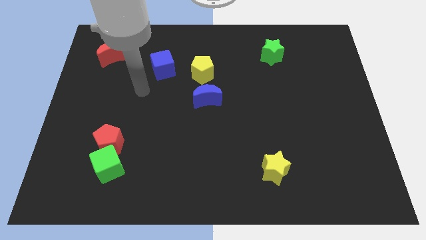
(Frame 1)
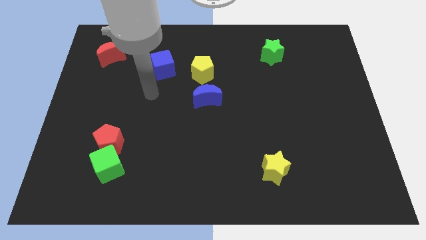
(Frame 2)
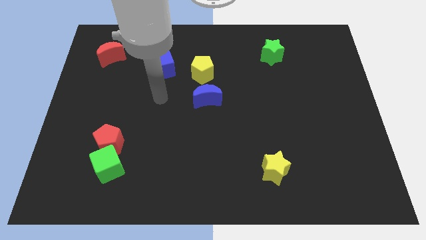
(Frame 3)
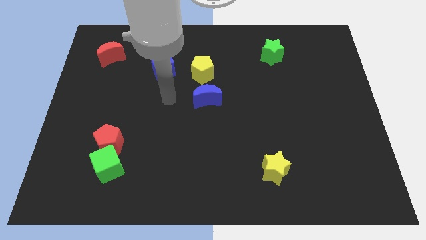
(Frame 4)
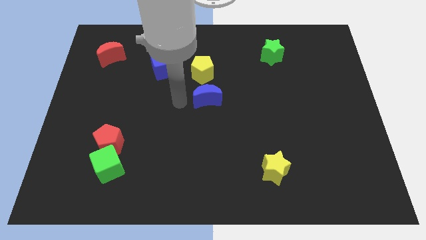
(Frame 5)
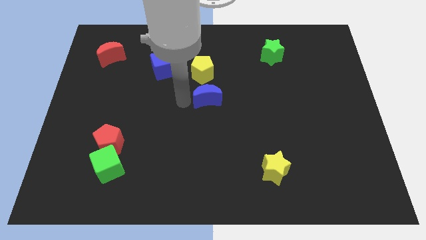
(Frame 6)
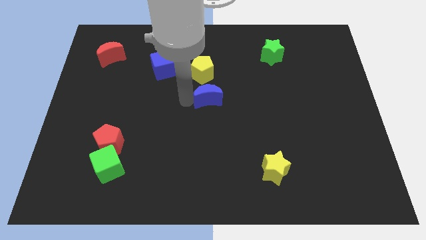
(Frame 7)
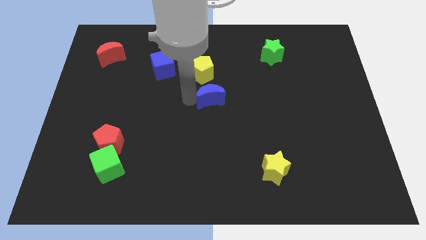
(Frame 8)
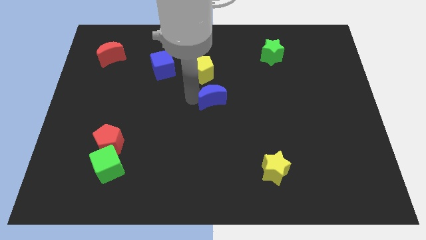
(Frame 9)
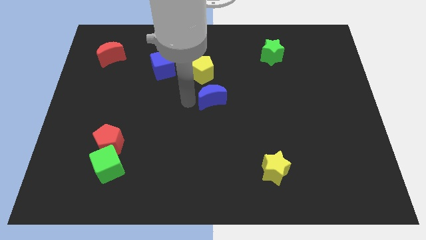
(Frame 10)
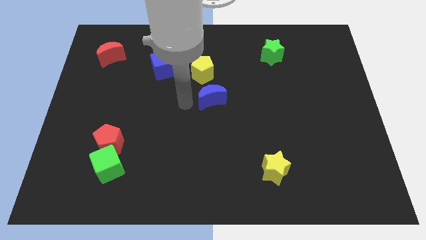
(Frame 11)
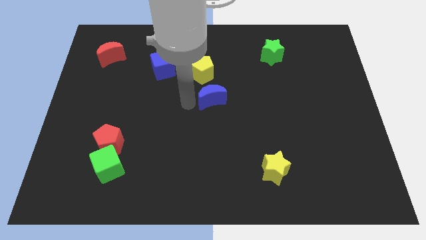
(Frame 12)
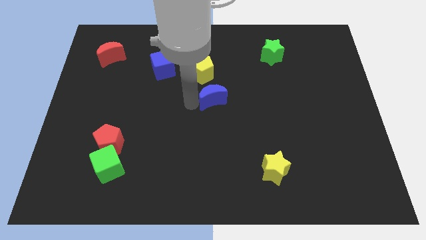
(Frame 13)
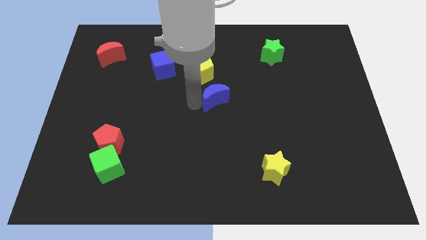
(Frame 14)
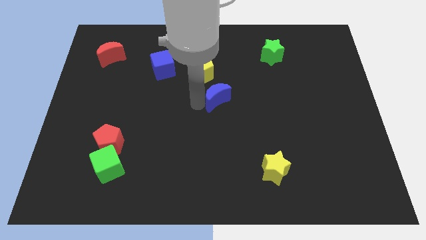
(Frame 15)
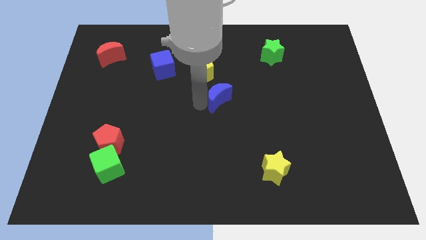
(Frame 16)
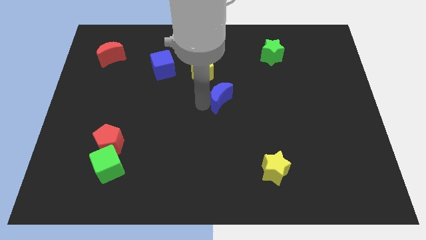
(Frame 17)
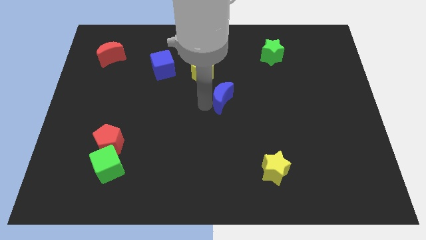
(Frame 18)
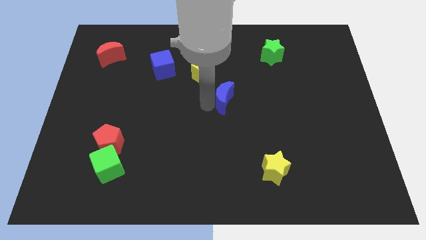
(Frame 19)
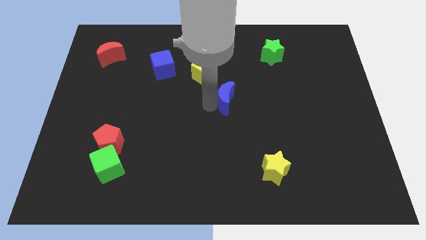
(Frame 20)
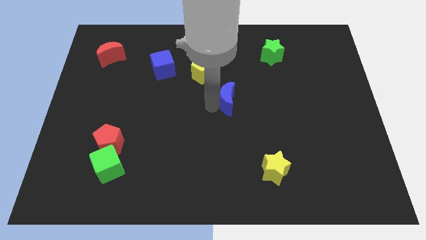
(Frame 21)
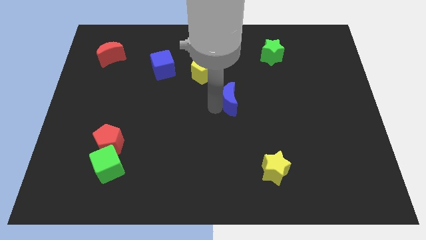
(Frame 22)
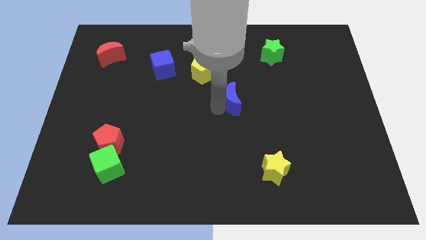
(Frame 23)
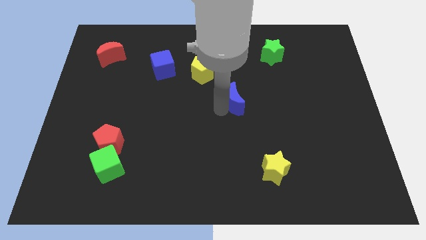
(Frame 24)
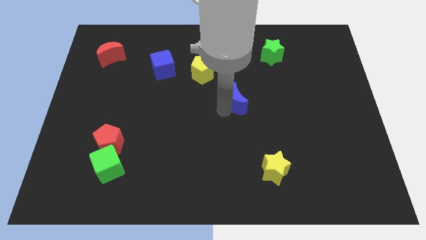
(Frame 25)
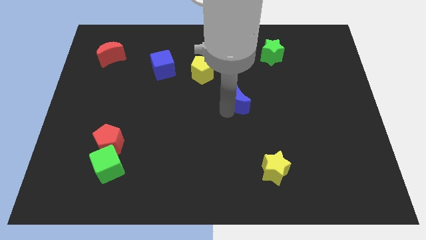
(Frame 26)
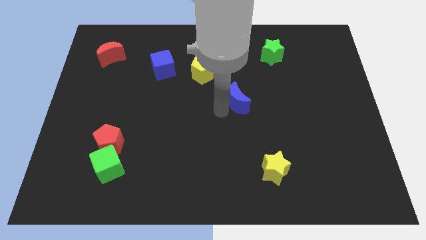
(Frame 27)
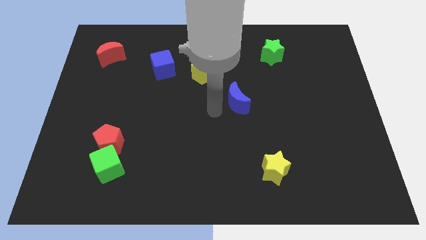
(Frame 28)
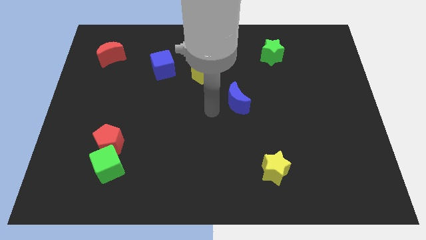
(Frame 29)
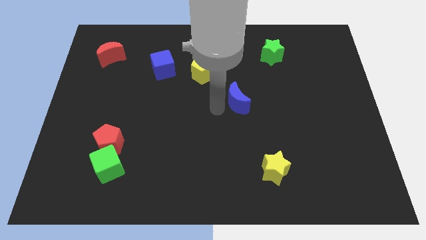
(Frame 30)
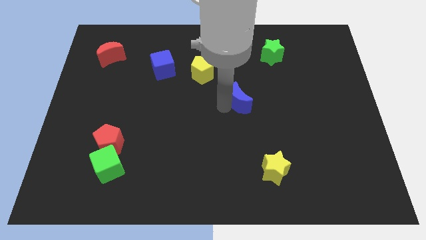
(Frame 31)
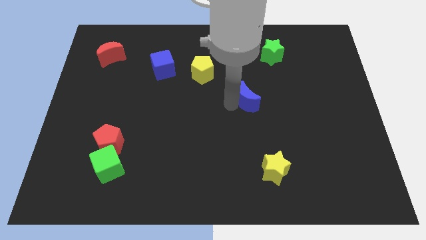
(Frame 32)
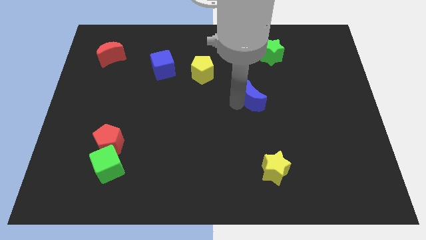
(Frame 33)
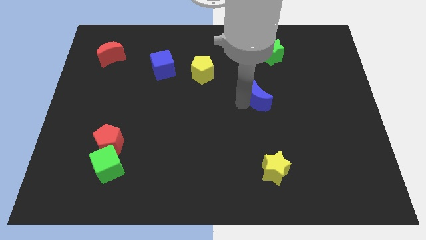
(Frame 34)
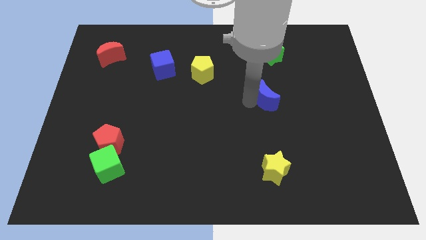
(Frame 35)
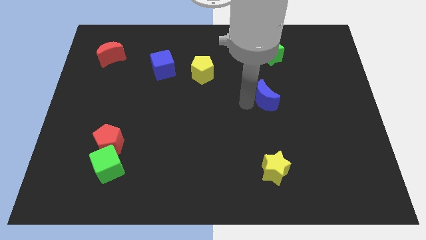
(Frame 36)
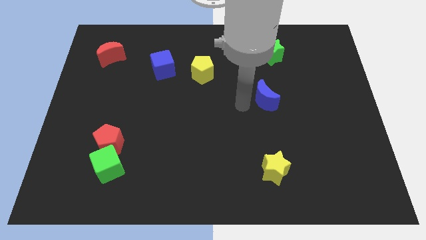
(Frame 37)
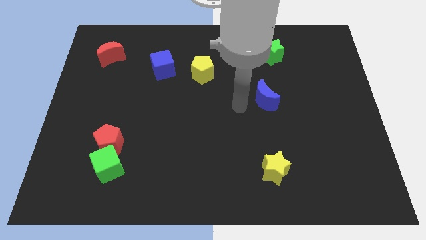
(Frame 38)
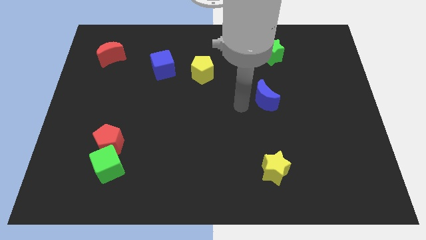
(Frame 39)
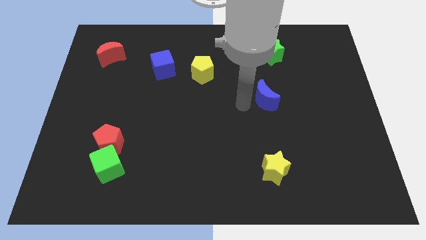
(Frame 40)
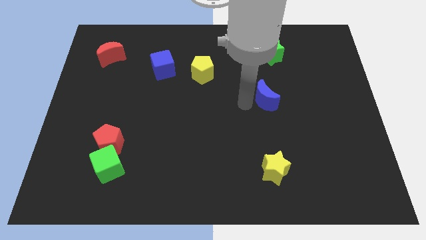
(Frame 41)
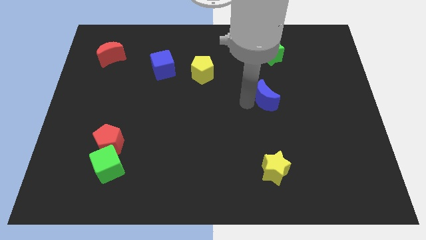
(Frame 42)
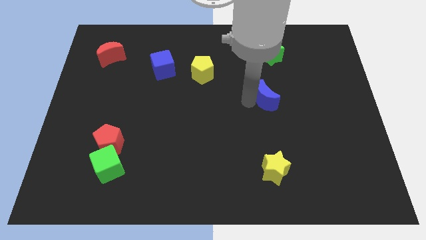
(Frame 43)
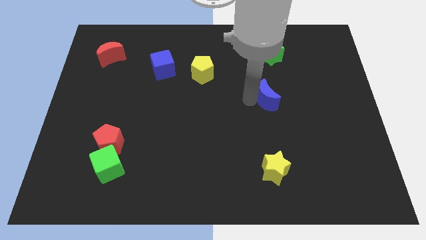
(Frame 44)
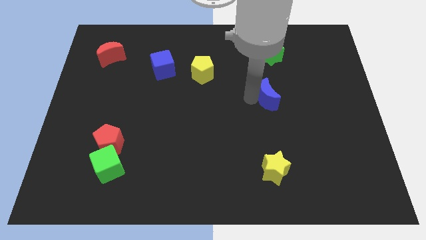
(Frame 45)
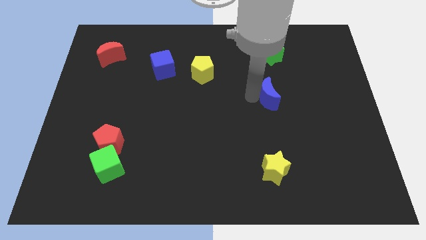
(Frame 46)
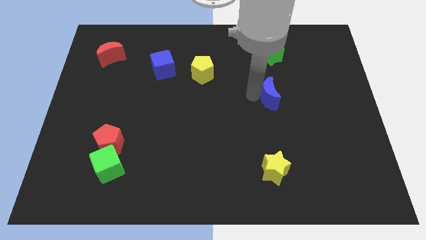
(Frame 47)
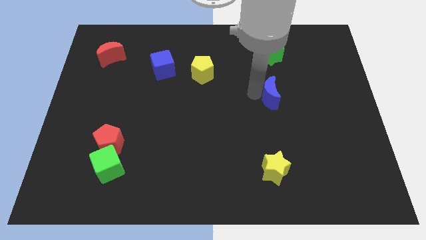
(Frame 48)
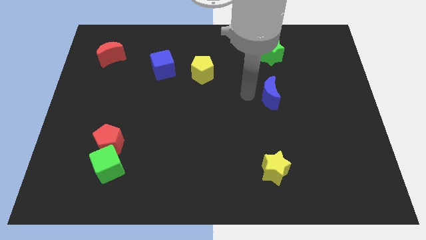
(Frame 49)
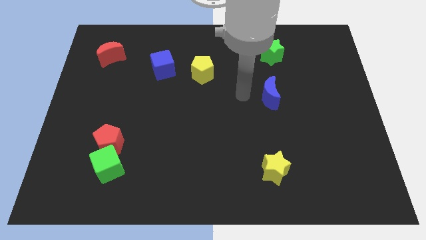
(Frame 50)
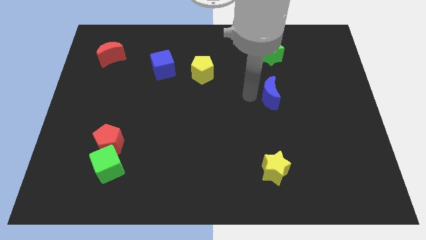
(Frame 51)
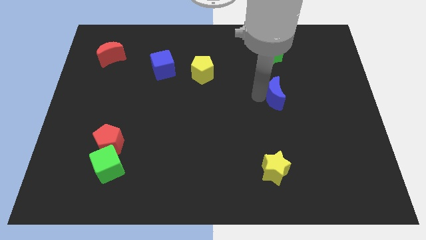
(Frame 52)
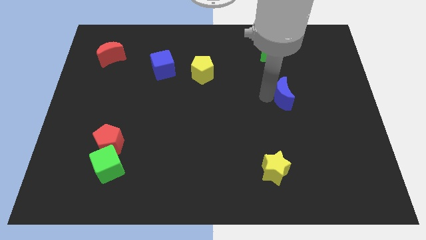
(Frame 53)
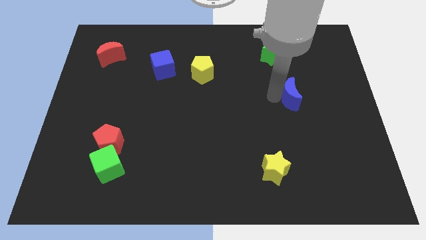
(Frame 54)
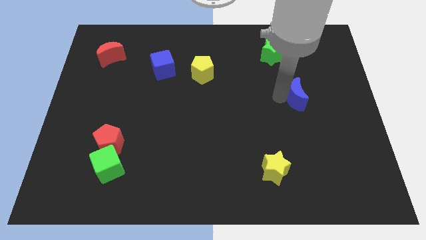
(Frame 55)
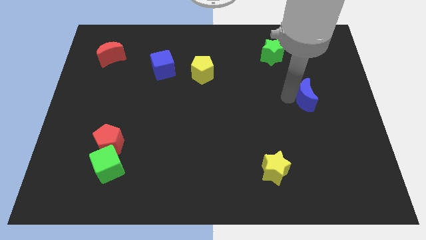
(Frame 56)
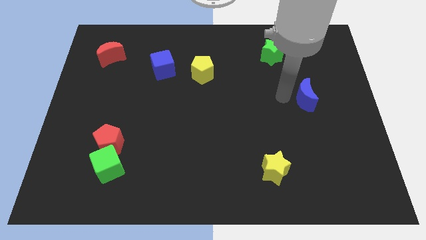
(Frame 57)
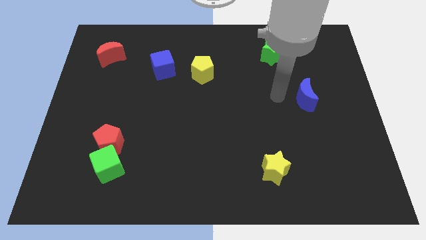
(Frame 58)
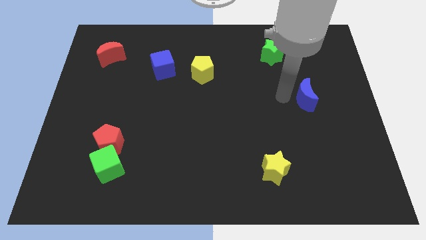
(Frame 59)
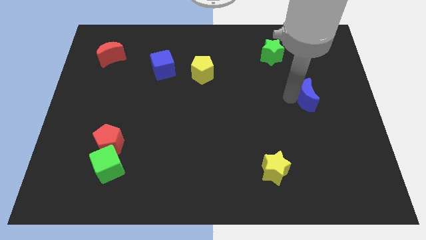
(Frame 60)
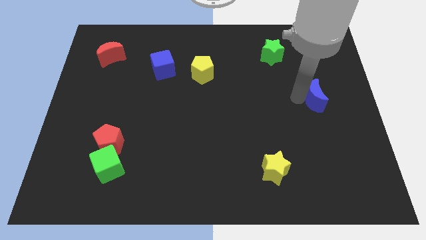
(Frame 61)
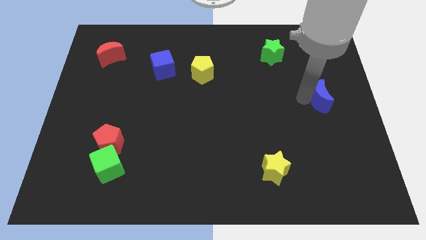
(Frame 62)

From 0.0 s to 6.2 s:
push the blue moon to the center right

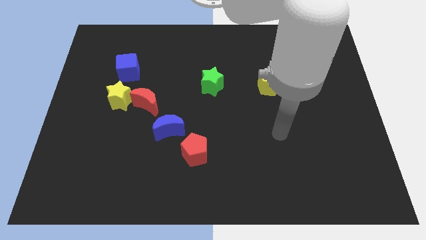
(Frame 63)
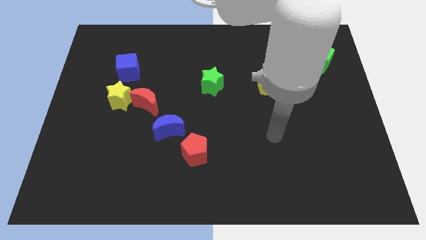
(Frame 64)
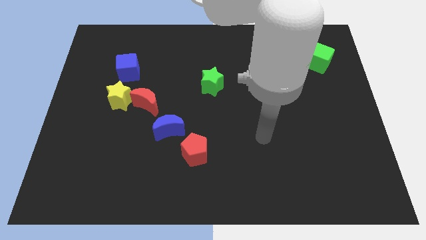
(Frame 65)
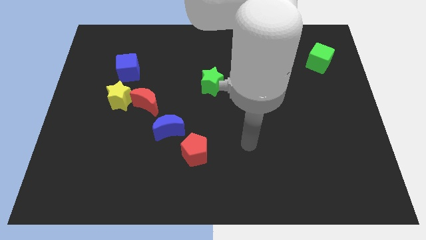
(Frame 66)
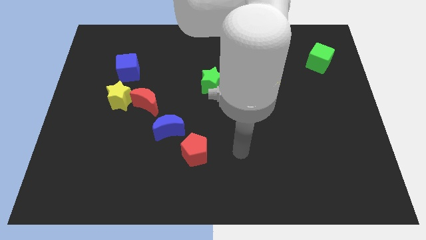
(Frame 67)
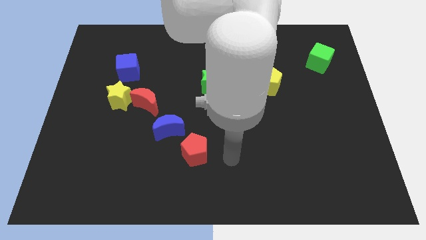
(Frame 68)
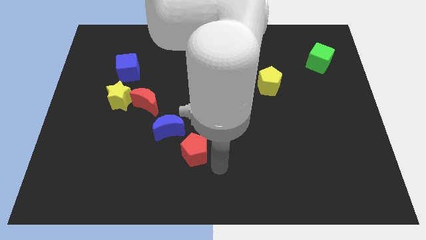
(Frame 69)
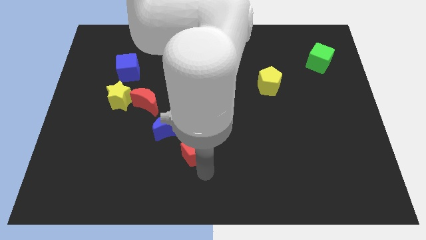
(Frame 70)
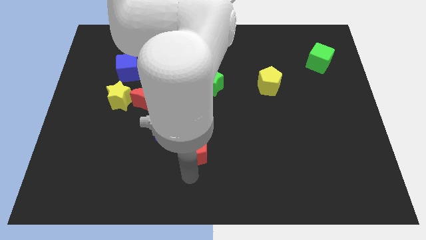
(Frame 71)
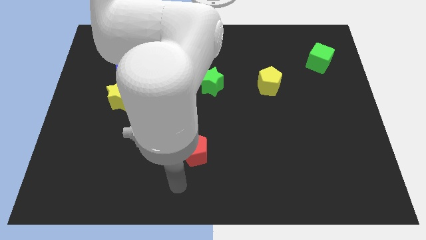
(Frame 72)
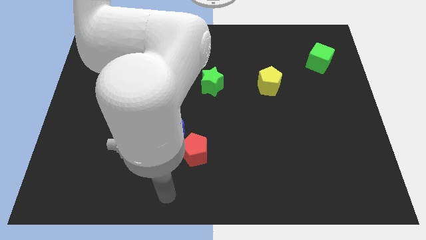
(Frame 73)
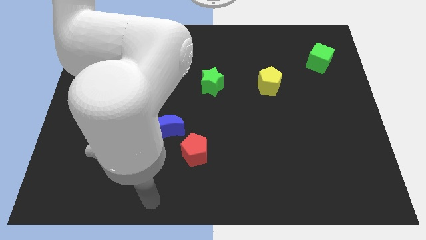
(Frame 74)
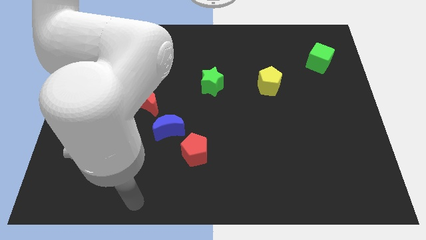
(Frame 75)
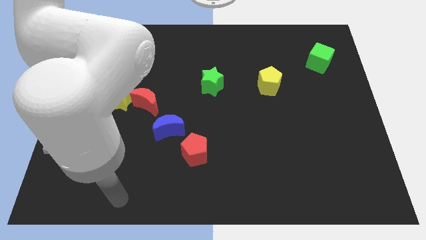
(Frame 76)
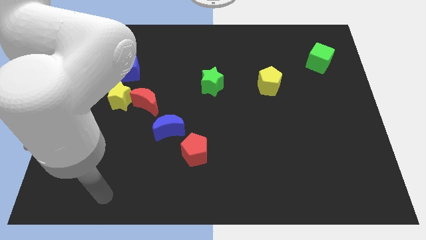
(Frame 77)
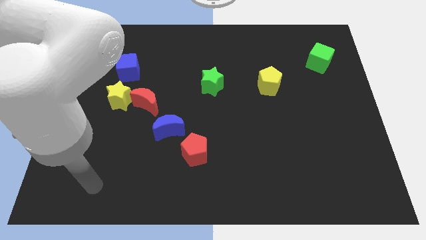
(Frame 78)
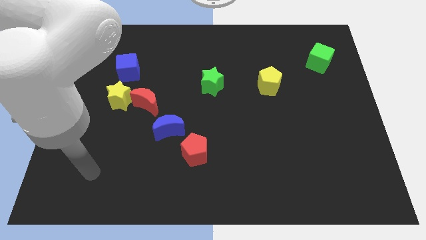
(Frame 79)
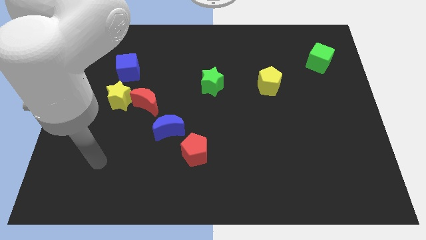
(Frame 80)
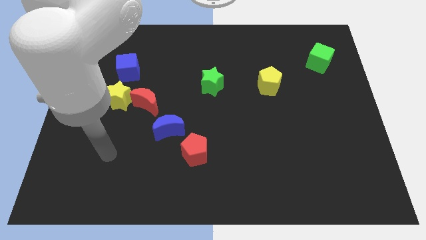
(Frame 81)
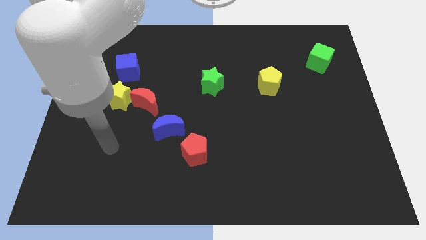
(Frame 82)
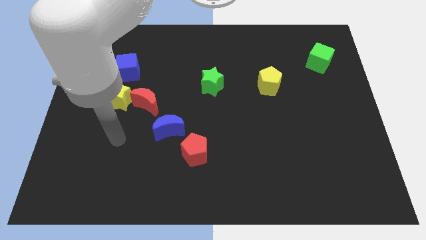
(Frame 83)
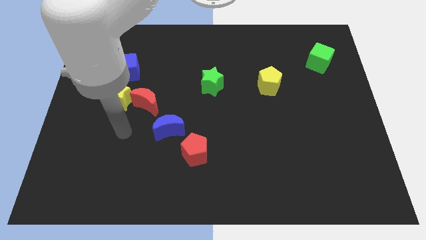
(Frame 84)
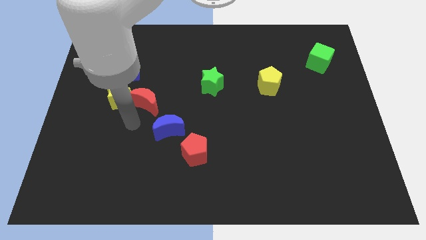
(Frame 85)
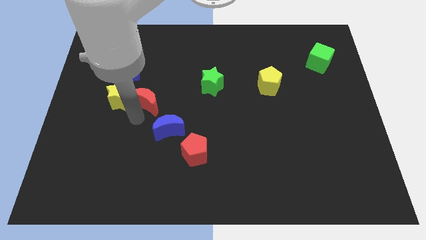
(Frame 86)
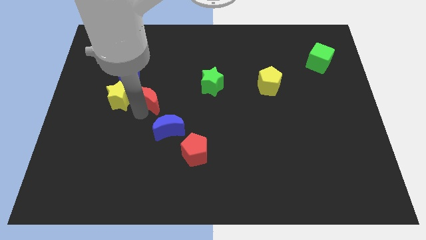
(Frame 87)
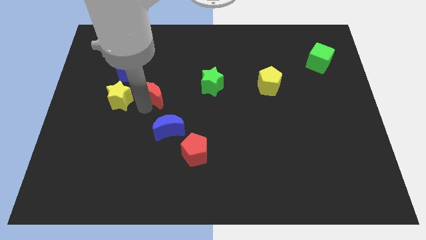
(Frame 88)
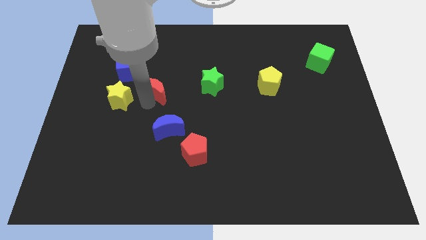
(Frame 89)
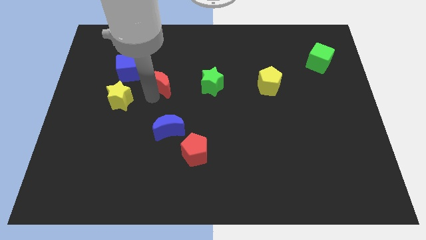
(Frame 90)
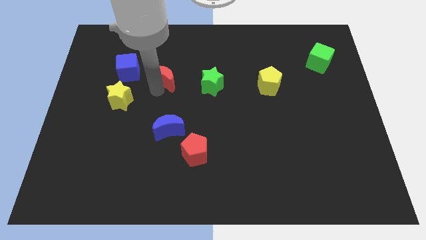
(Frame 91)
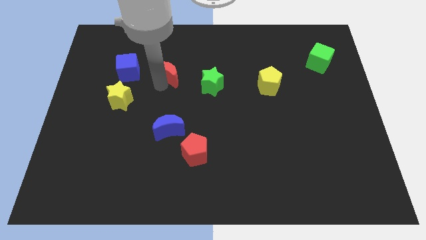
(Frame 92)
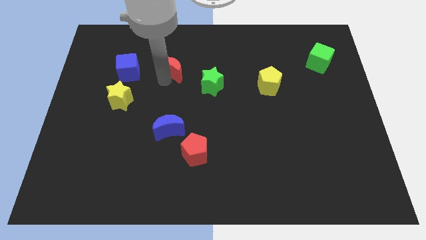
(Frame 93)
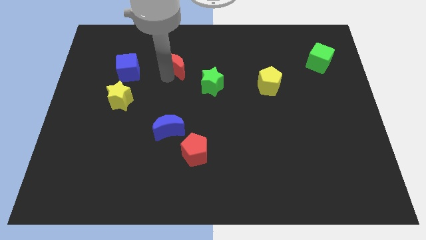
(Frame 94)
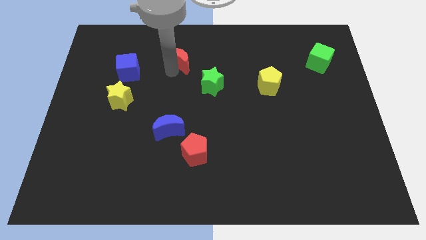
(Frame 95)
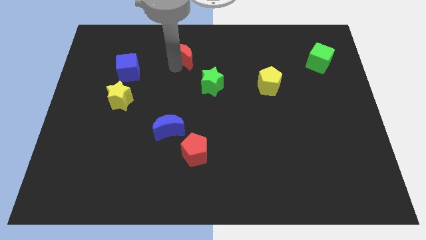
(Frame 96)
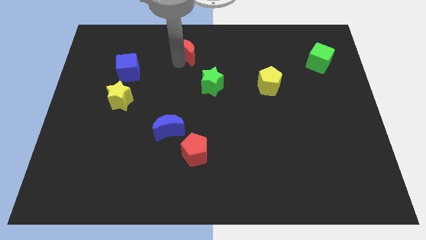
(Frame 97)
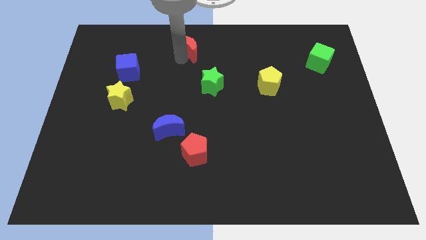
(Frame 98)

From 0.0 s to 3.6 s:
move the red moon to the towards your base
